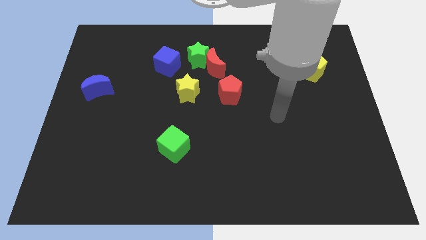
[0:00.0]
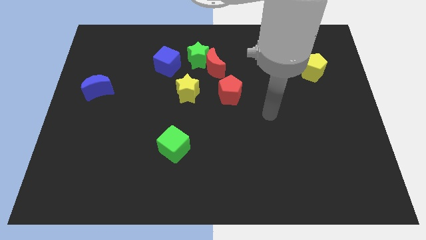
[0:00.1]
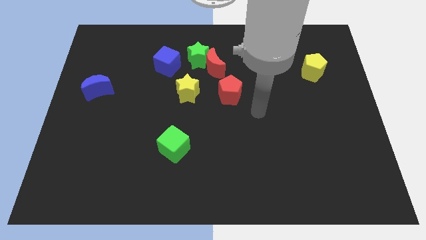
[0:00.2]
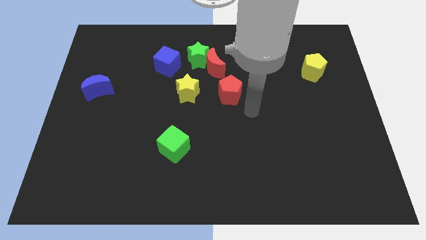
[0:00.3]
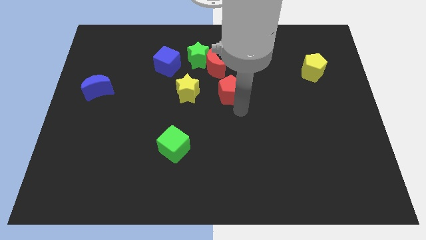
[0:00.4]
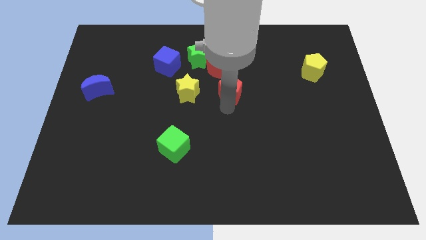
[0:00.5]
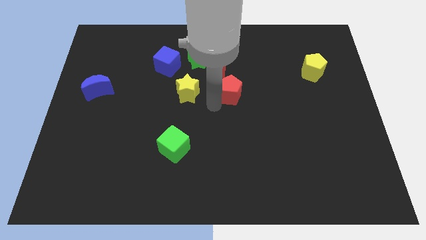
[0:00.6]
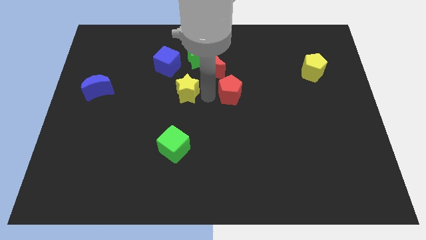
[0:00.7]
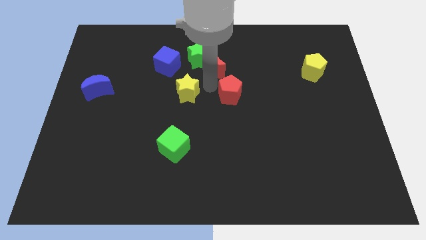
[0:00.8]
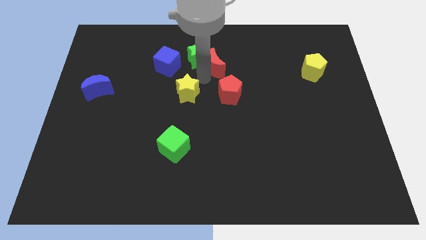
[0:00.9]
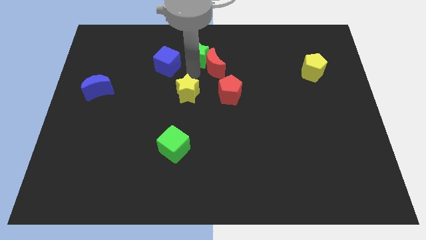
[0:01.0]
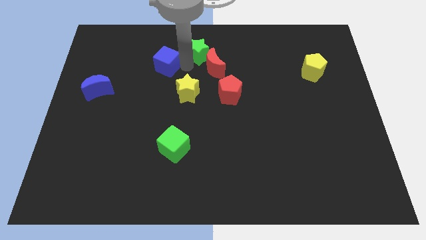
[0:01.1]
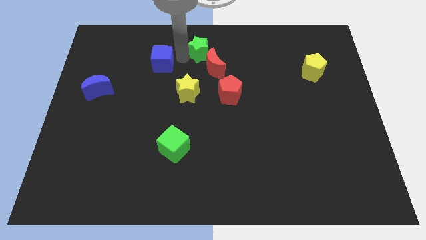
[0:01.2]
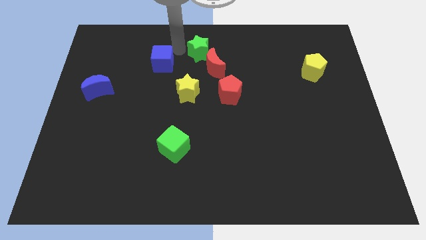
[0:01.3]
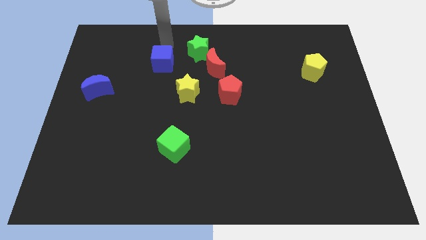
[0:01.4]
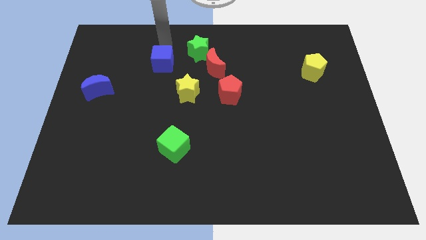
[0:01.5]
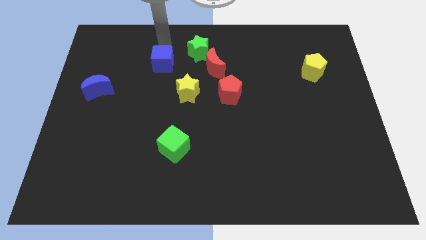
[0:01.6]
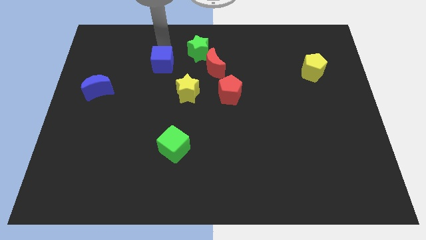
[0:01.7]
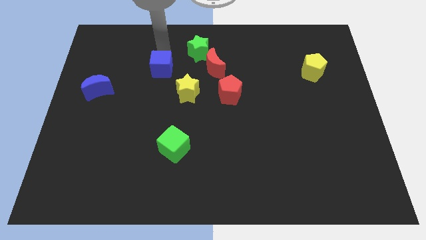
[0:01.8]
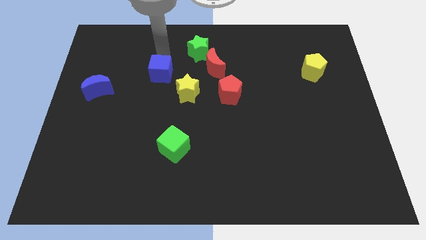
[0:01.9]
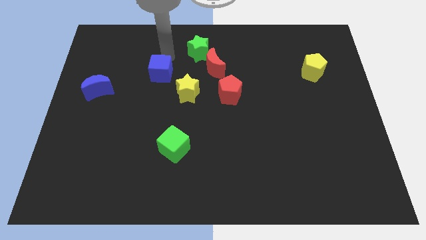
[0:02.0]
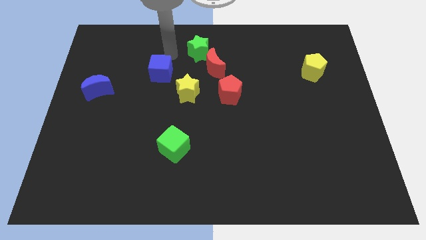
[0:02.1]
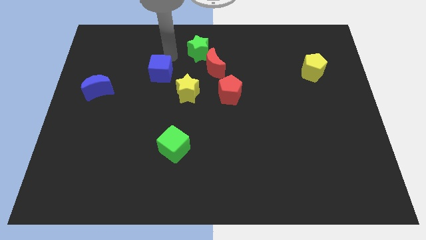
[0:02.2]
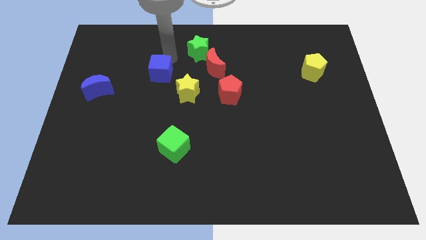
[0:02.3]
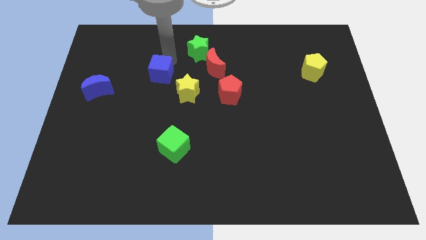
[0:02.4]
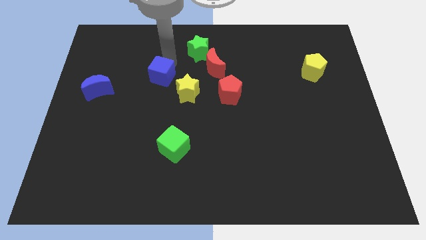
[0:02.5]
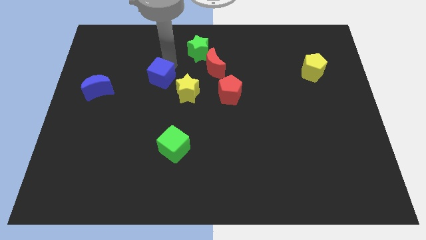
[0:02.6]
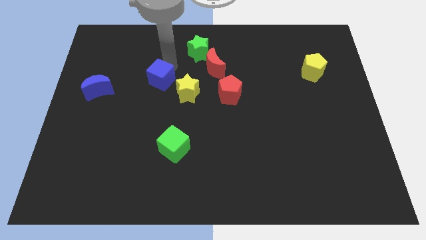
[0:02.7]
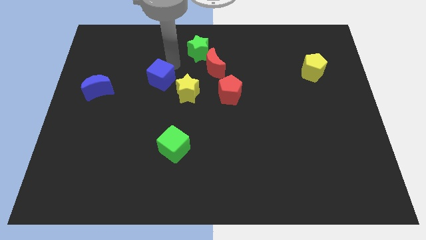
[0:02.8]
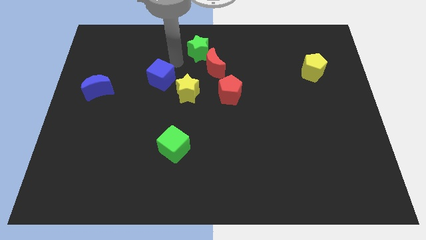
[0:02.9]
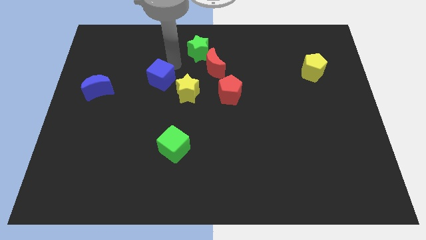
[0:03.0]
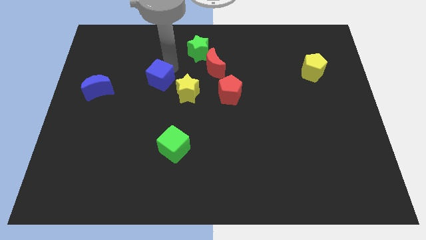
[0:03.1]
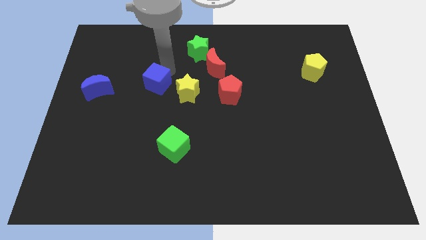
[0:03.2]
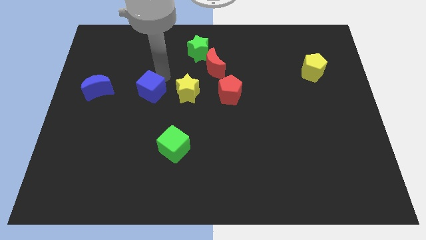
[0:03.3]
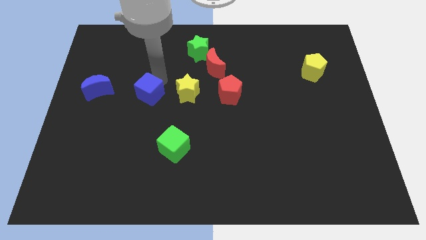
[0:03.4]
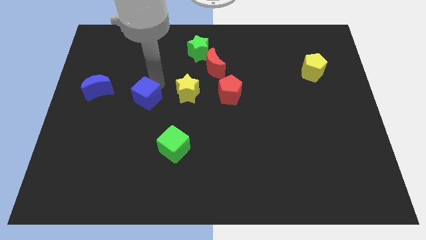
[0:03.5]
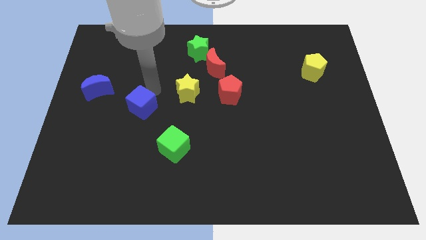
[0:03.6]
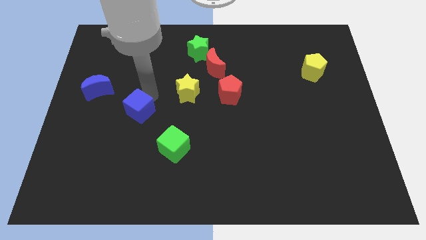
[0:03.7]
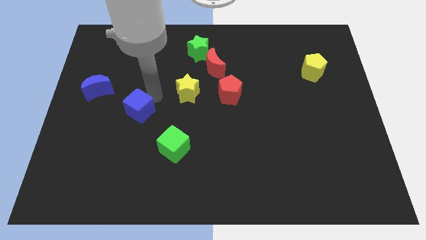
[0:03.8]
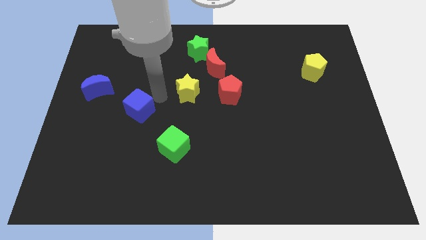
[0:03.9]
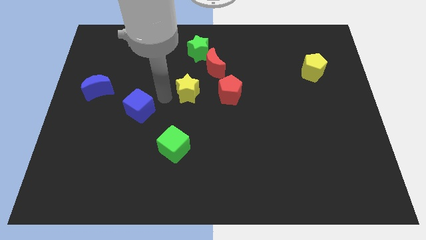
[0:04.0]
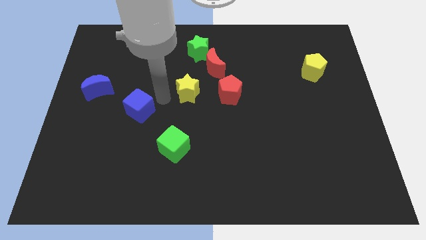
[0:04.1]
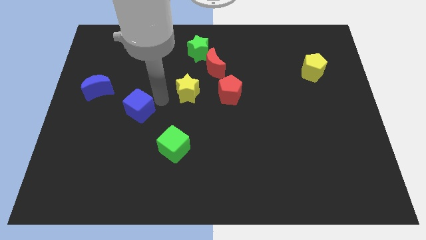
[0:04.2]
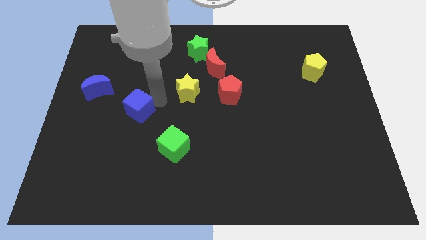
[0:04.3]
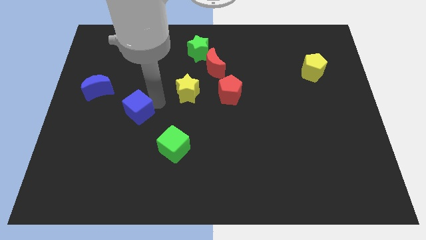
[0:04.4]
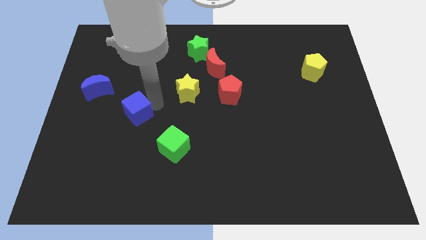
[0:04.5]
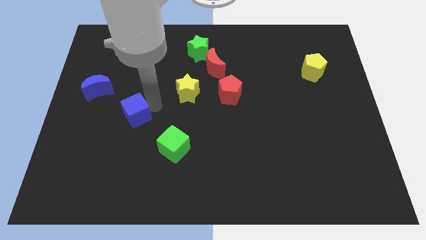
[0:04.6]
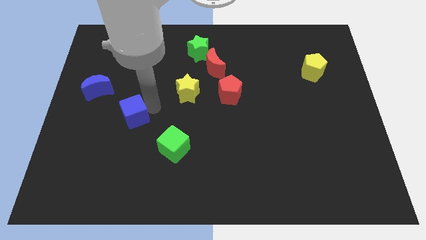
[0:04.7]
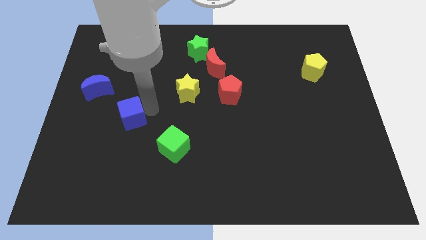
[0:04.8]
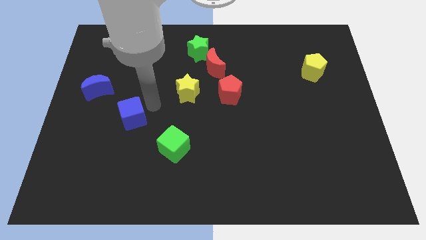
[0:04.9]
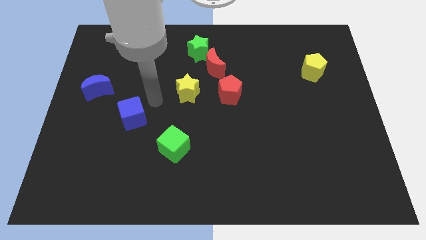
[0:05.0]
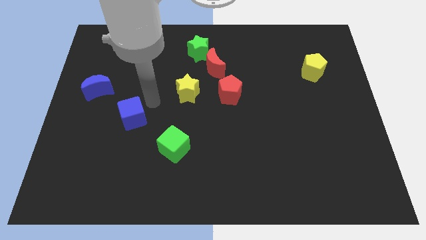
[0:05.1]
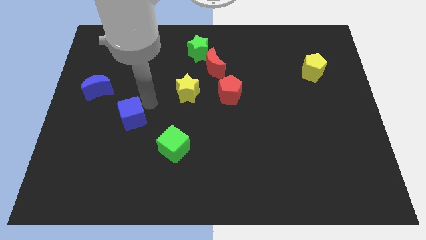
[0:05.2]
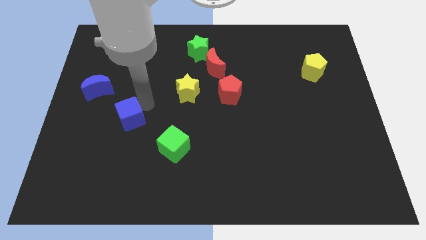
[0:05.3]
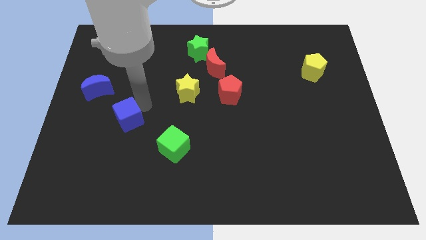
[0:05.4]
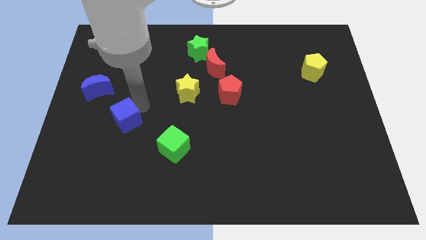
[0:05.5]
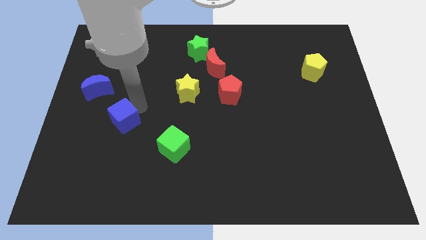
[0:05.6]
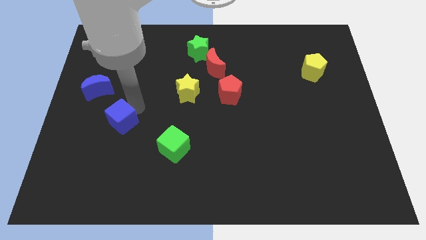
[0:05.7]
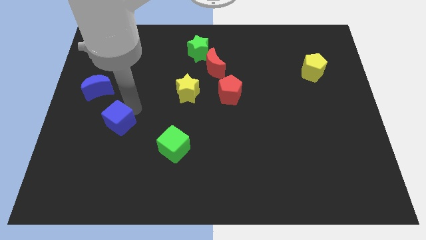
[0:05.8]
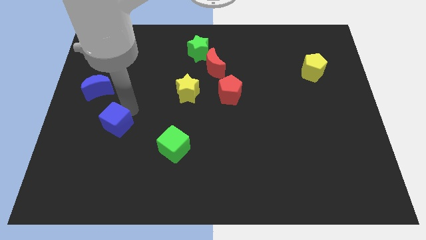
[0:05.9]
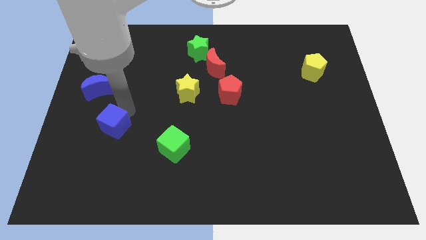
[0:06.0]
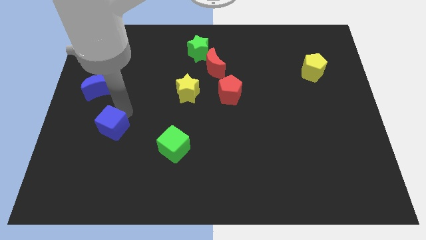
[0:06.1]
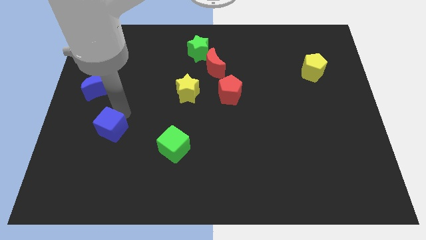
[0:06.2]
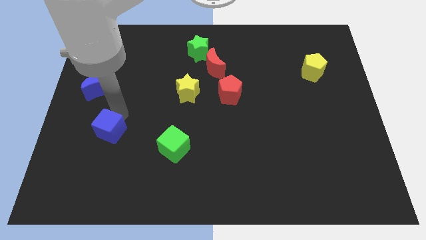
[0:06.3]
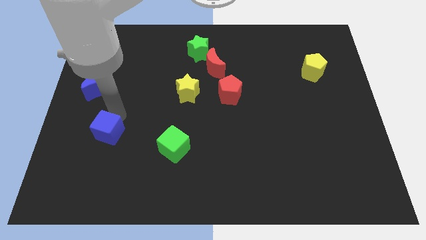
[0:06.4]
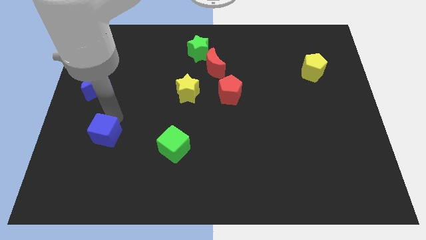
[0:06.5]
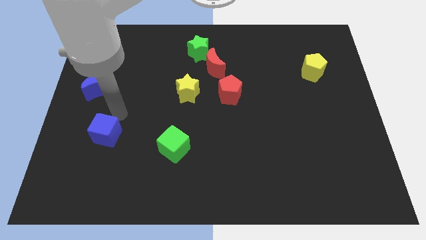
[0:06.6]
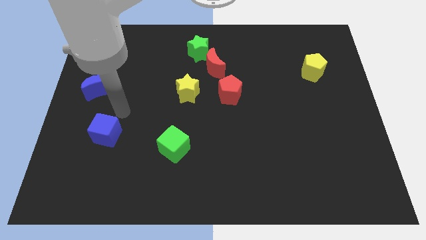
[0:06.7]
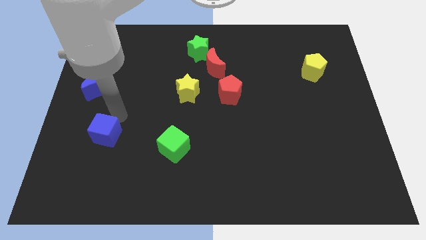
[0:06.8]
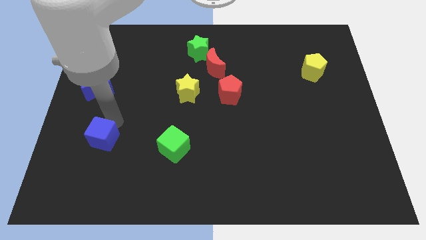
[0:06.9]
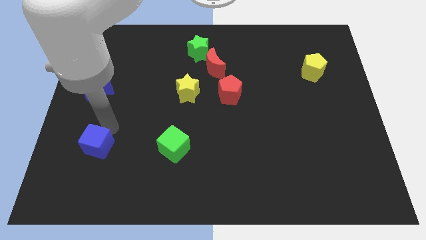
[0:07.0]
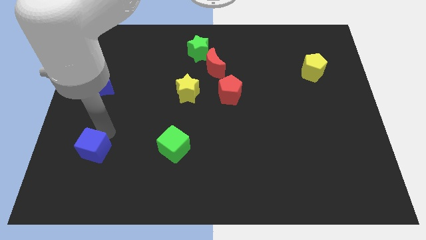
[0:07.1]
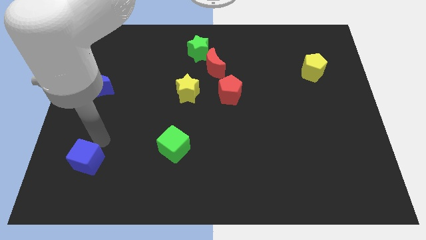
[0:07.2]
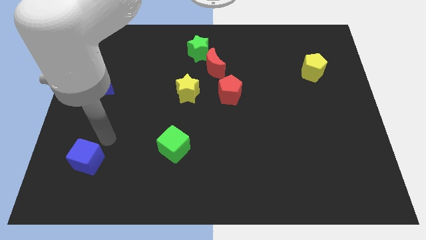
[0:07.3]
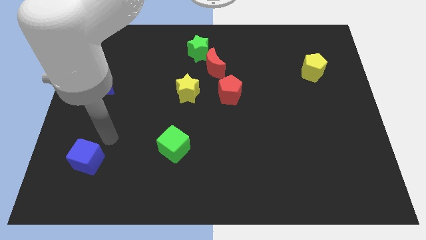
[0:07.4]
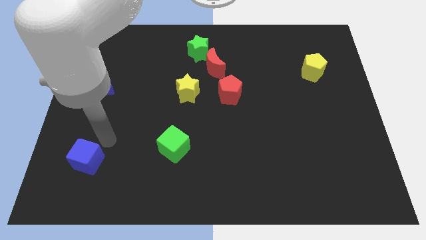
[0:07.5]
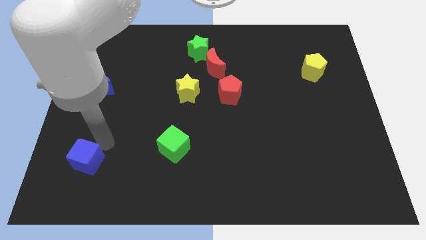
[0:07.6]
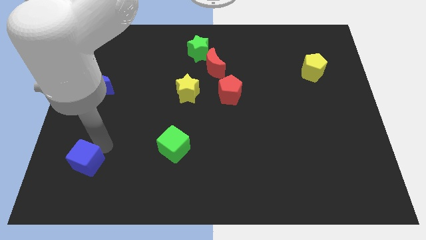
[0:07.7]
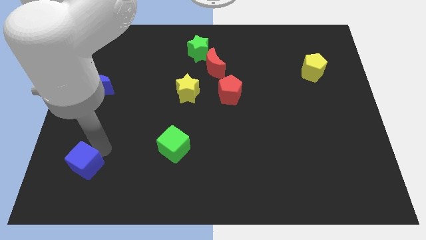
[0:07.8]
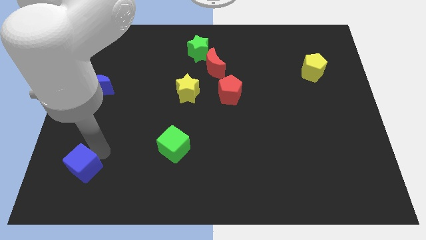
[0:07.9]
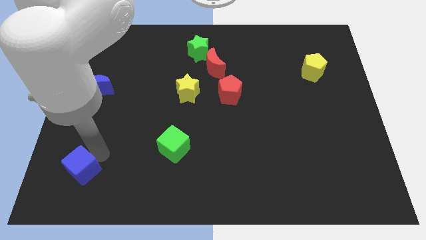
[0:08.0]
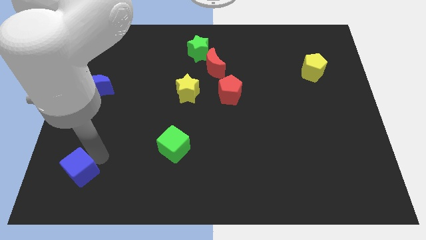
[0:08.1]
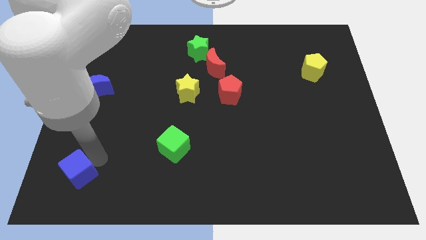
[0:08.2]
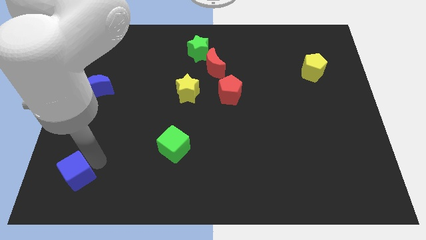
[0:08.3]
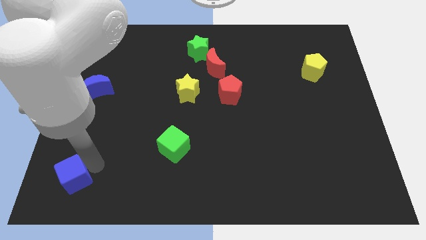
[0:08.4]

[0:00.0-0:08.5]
move the blue cube to the lower left corner
